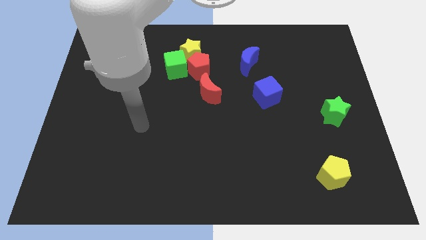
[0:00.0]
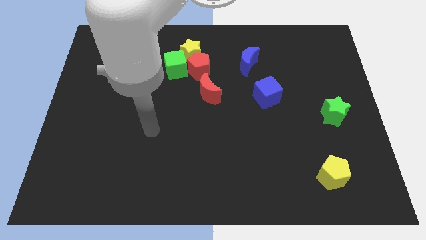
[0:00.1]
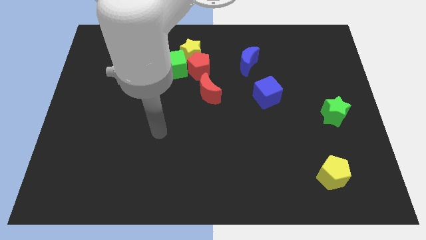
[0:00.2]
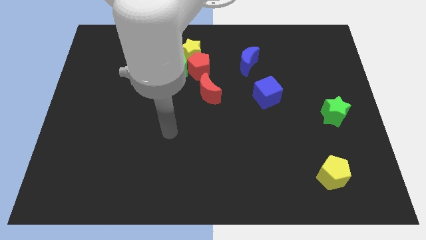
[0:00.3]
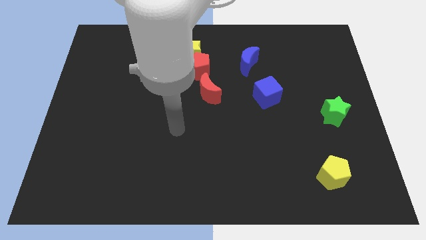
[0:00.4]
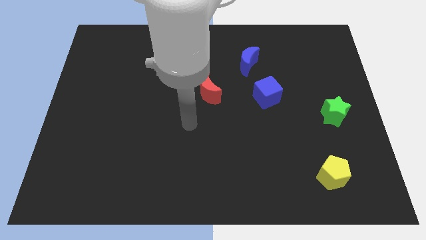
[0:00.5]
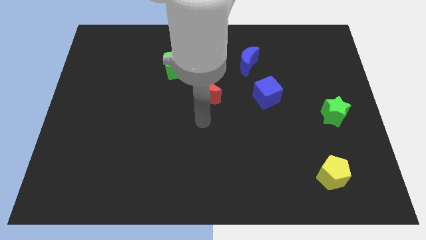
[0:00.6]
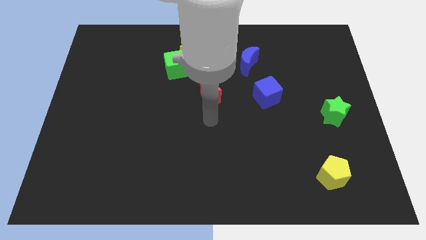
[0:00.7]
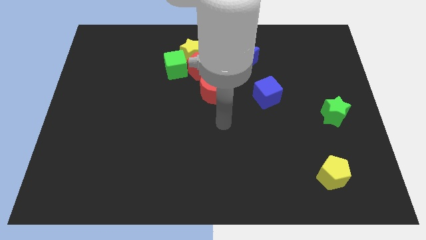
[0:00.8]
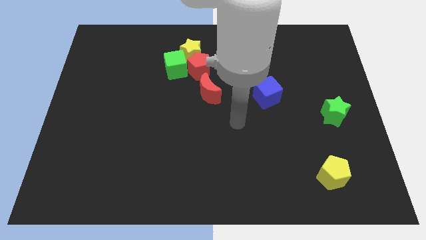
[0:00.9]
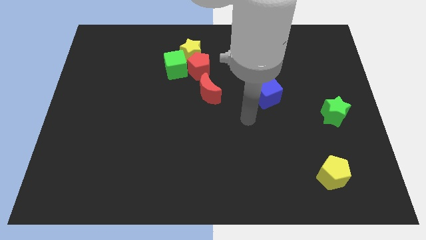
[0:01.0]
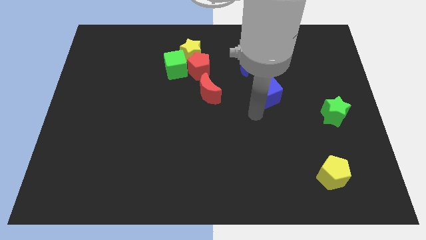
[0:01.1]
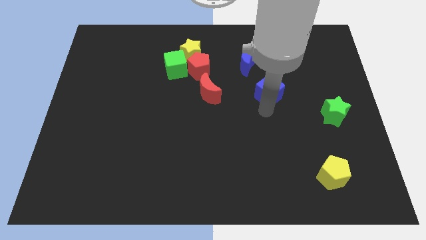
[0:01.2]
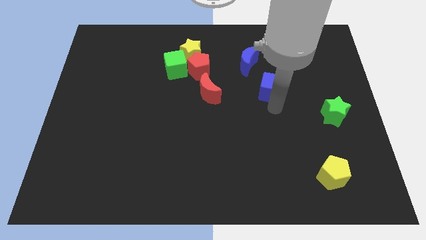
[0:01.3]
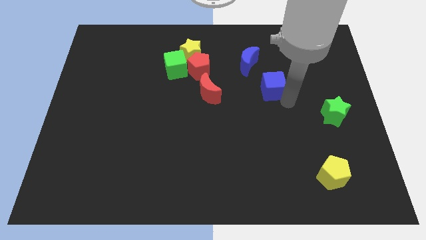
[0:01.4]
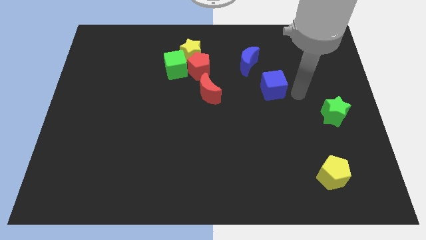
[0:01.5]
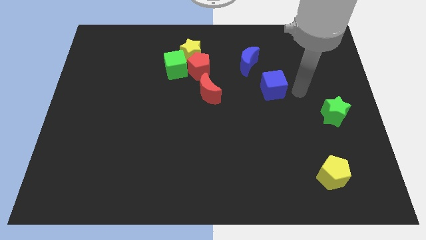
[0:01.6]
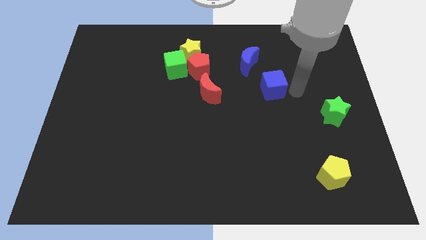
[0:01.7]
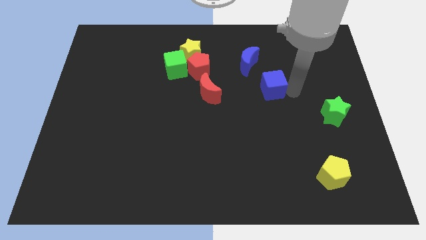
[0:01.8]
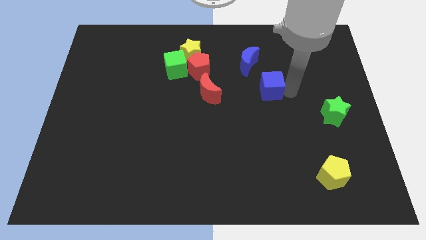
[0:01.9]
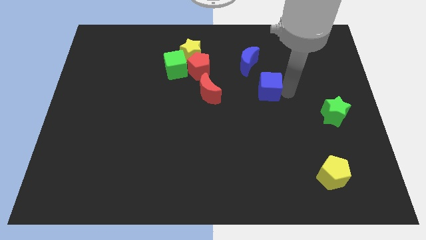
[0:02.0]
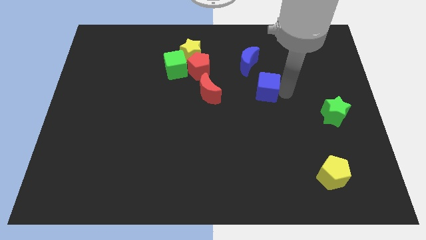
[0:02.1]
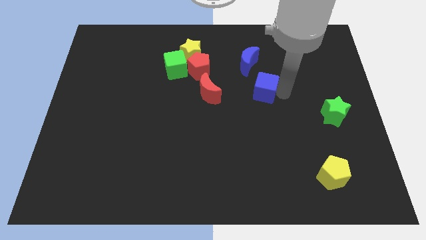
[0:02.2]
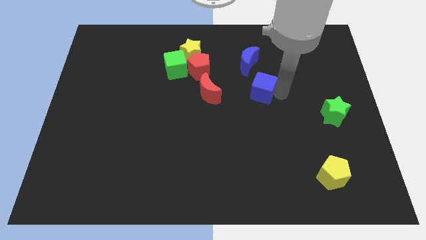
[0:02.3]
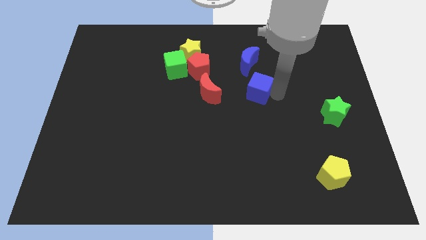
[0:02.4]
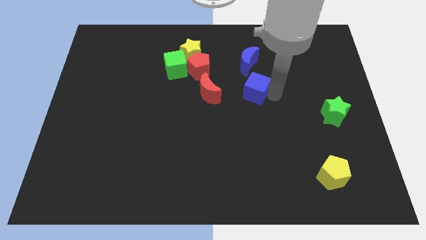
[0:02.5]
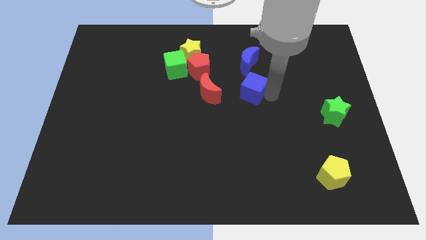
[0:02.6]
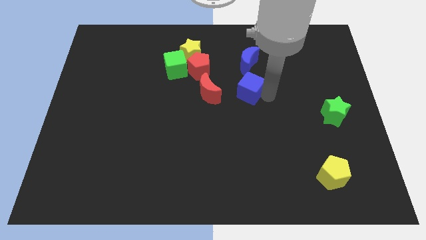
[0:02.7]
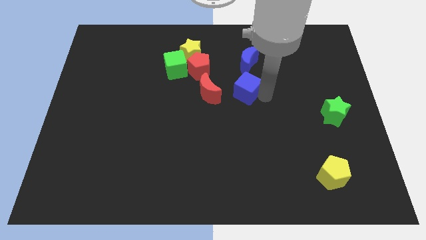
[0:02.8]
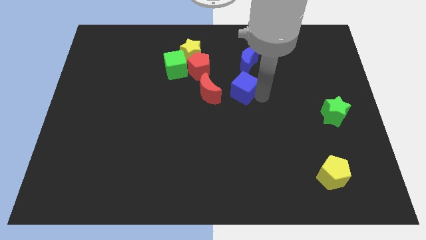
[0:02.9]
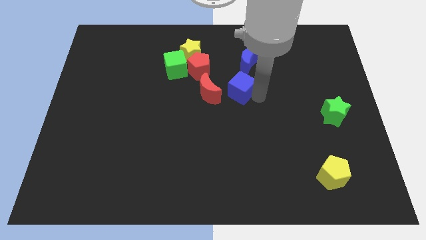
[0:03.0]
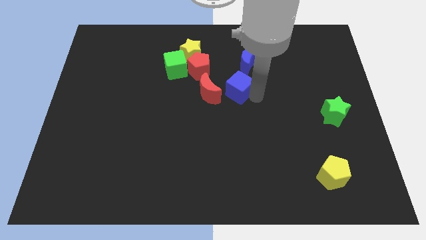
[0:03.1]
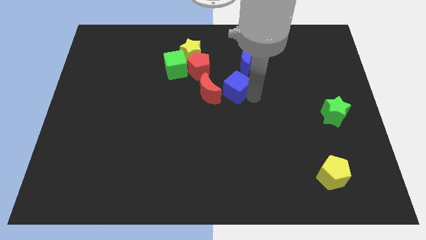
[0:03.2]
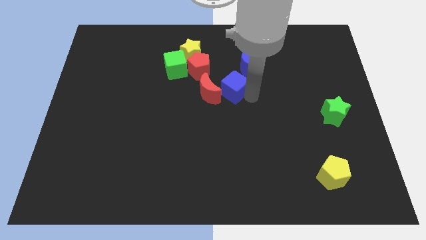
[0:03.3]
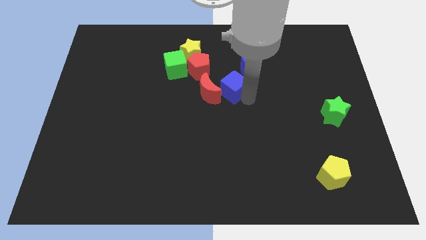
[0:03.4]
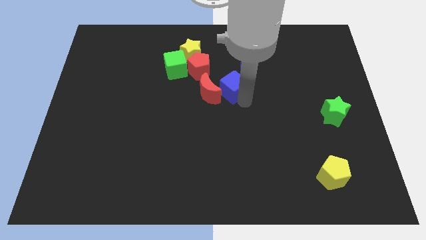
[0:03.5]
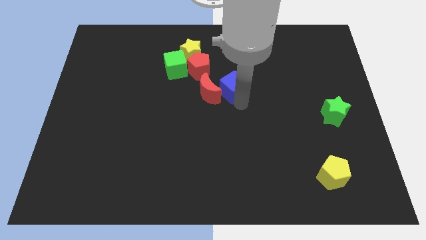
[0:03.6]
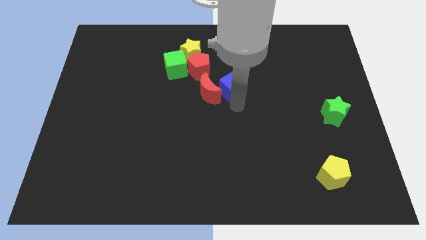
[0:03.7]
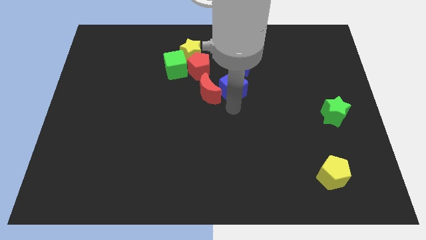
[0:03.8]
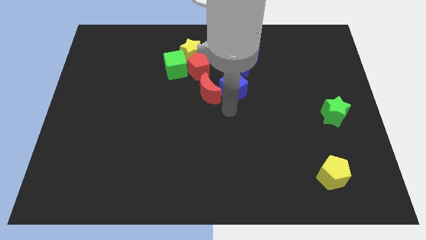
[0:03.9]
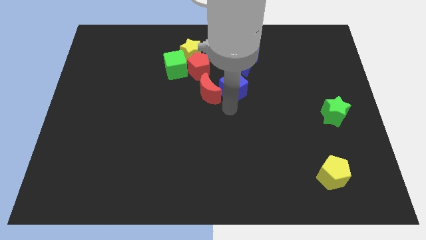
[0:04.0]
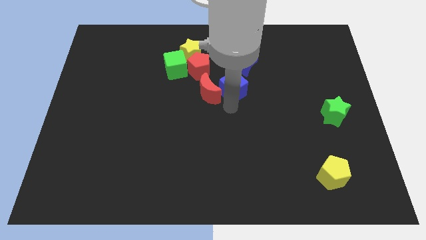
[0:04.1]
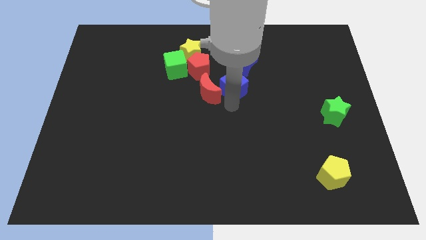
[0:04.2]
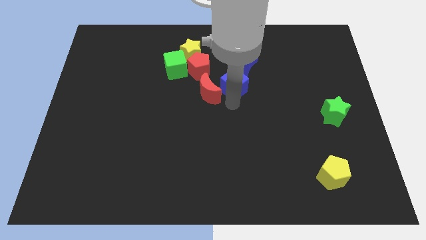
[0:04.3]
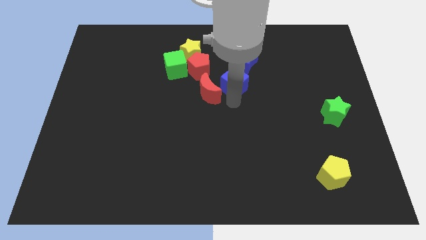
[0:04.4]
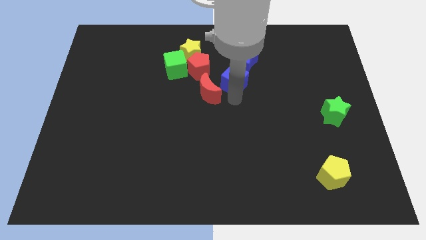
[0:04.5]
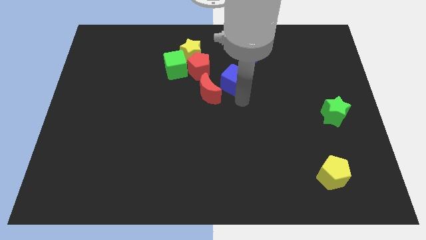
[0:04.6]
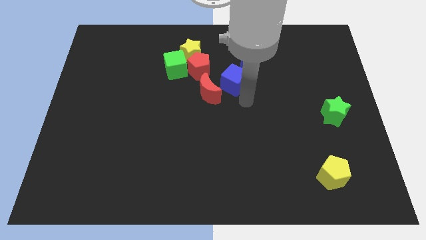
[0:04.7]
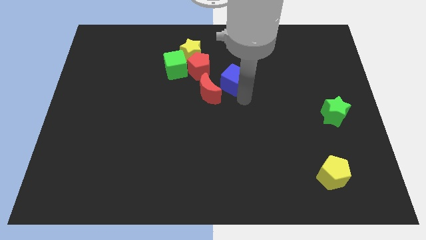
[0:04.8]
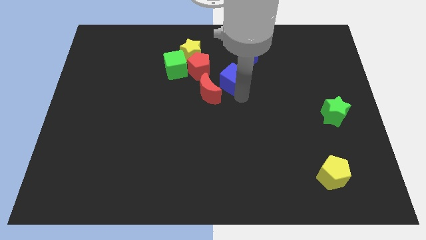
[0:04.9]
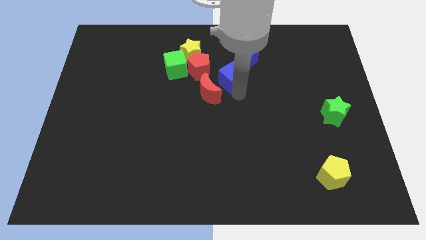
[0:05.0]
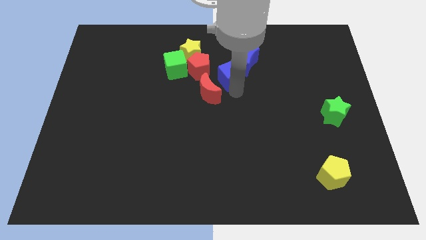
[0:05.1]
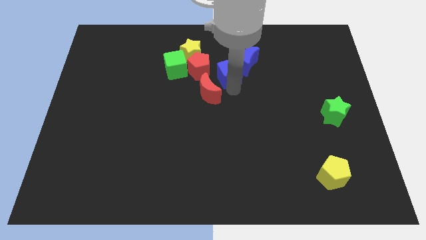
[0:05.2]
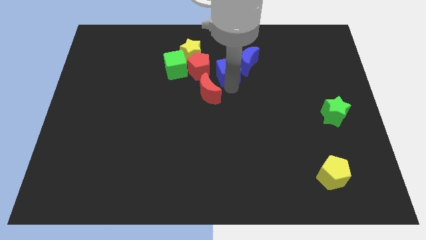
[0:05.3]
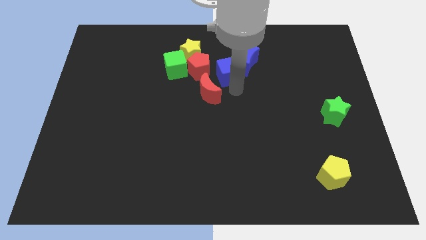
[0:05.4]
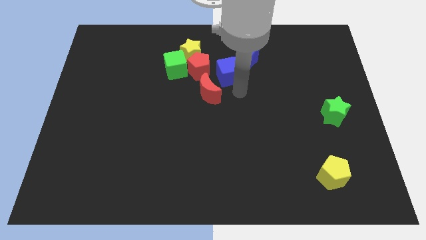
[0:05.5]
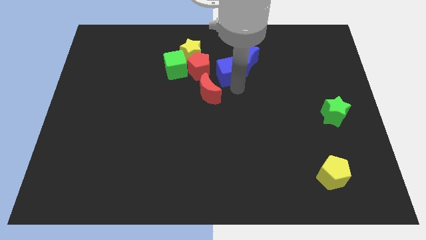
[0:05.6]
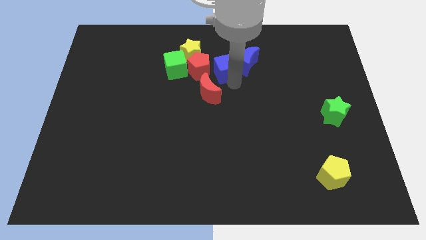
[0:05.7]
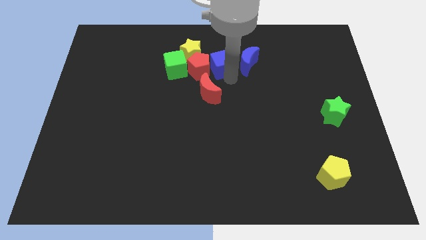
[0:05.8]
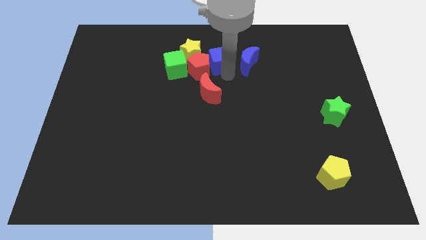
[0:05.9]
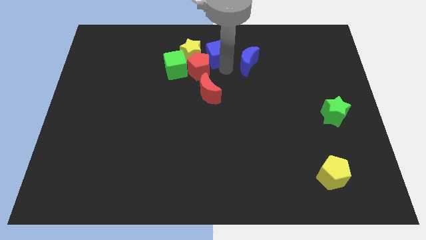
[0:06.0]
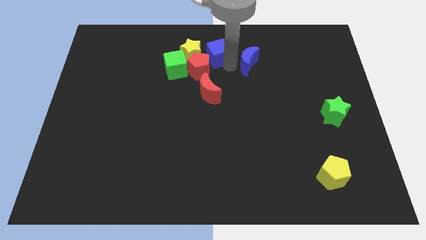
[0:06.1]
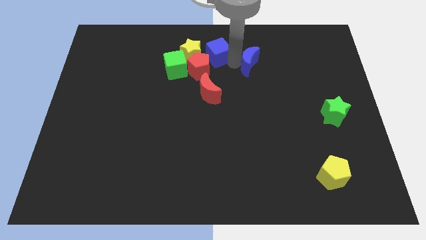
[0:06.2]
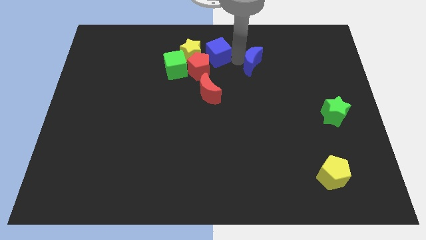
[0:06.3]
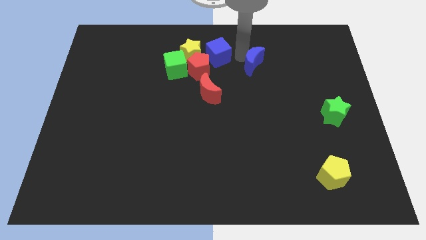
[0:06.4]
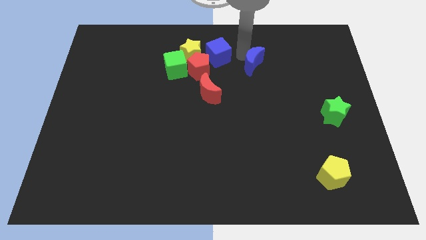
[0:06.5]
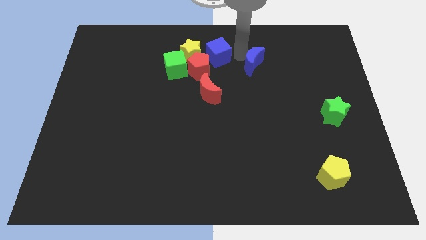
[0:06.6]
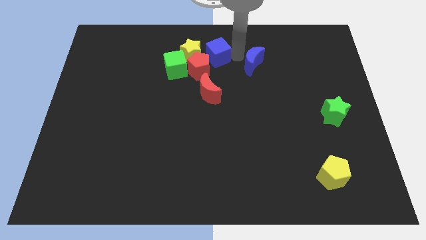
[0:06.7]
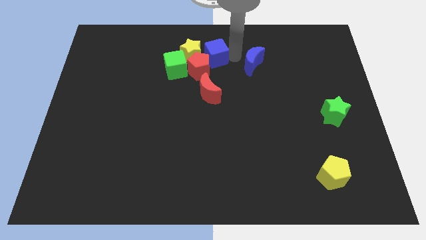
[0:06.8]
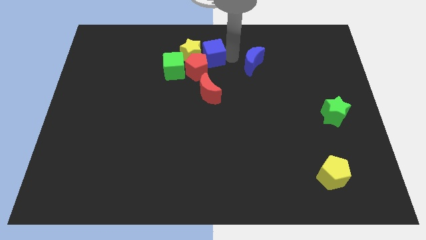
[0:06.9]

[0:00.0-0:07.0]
push the blue cube close to the yellow star

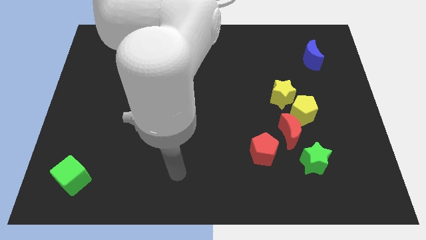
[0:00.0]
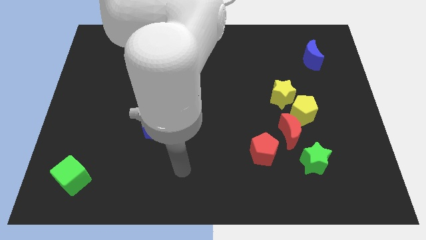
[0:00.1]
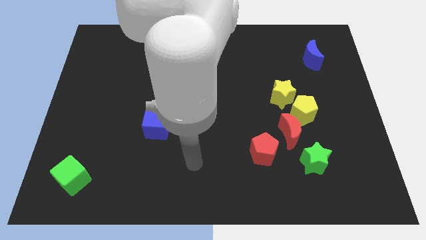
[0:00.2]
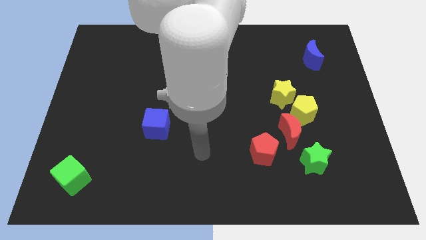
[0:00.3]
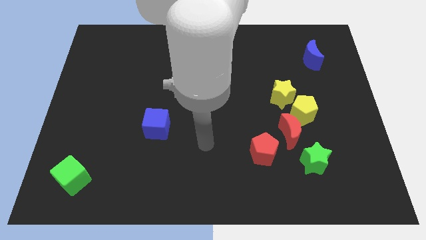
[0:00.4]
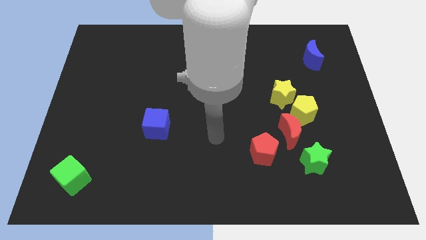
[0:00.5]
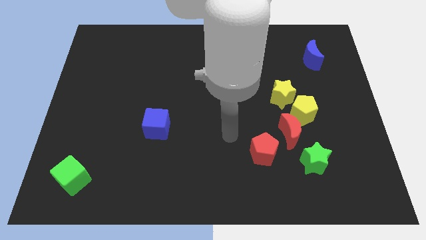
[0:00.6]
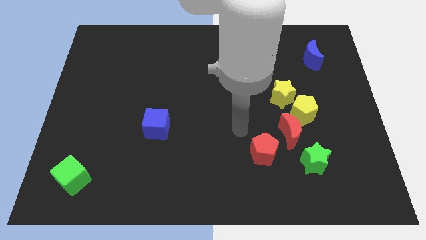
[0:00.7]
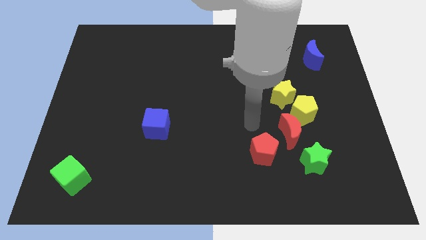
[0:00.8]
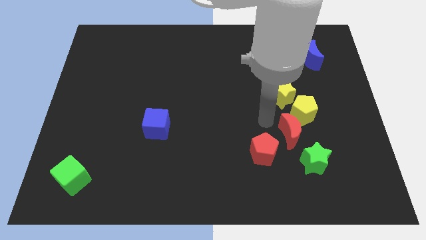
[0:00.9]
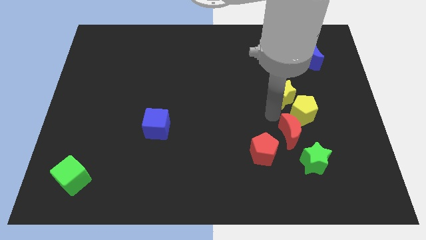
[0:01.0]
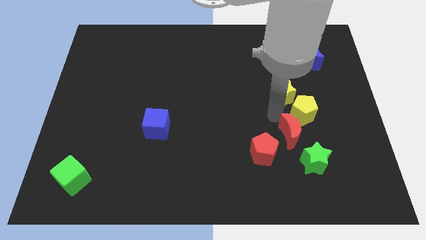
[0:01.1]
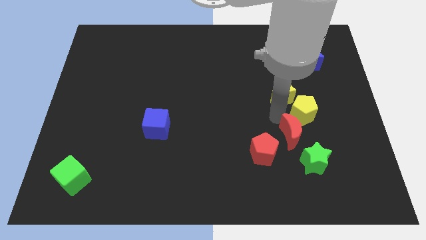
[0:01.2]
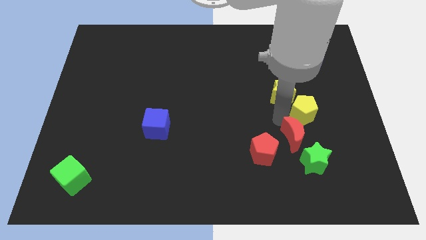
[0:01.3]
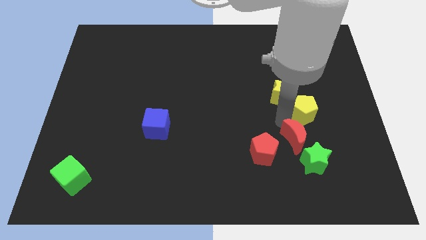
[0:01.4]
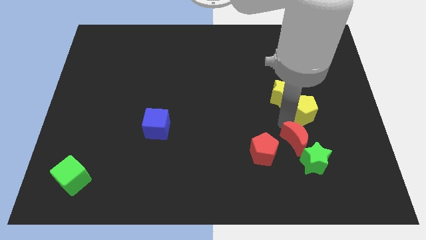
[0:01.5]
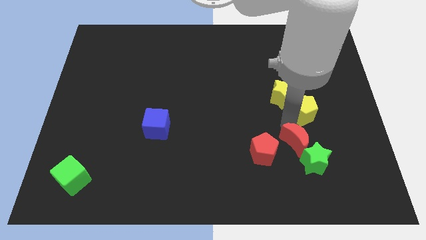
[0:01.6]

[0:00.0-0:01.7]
slide the red moon next to the green star
